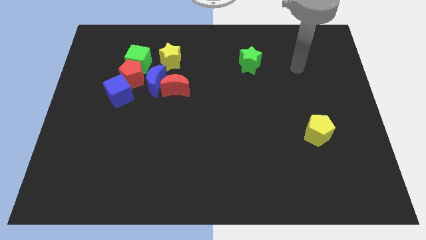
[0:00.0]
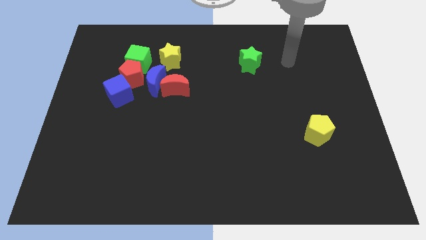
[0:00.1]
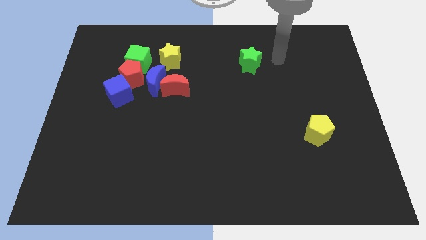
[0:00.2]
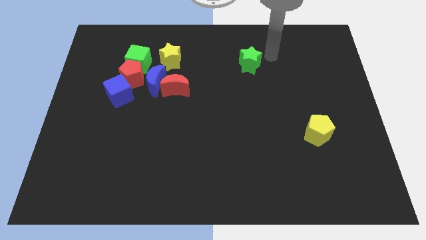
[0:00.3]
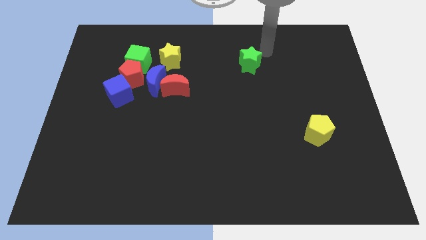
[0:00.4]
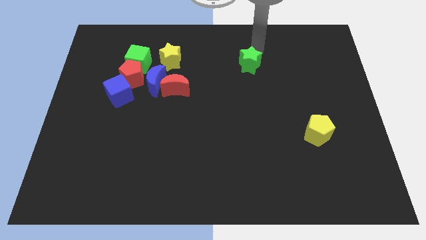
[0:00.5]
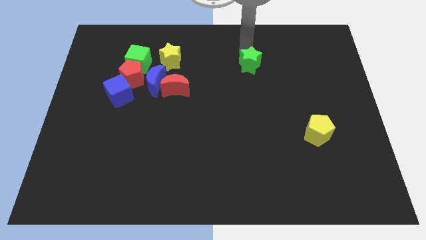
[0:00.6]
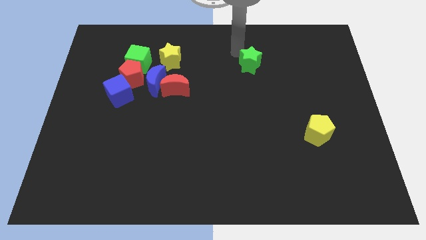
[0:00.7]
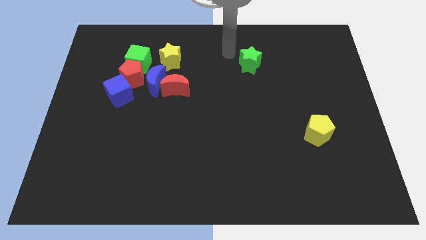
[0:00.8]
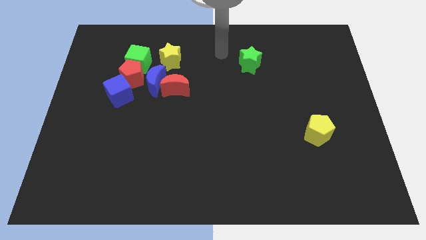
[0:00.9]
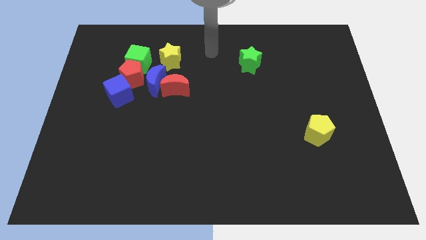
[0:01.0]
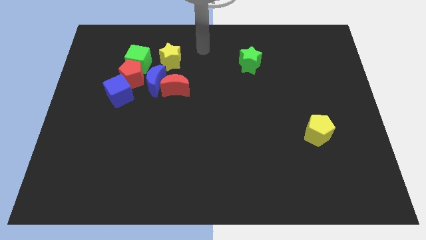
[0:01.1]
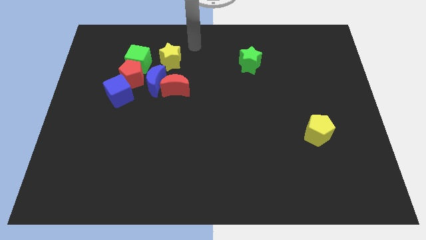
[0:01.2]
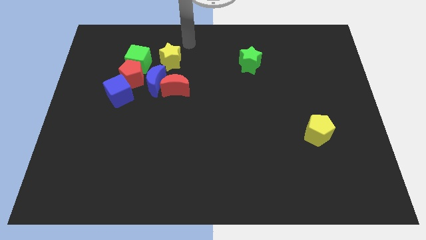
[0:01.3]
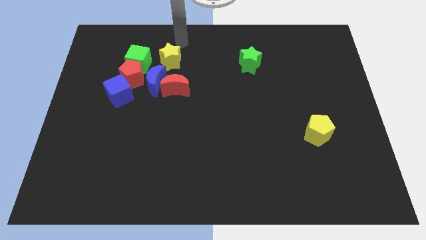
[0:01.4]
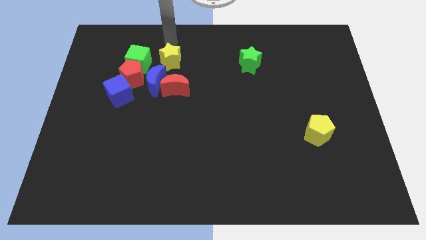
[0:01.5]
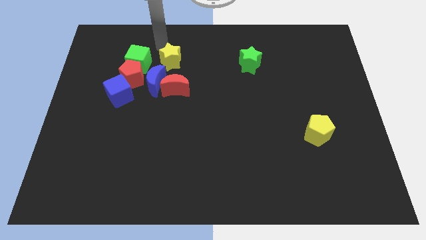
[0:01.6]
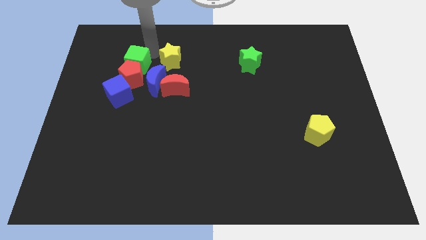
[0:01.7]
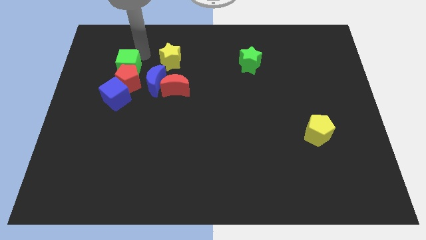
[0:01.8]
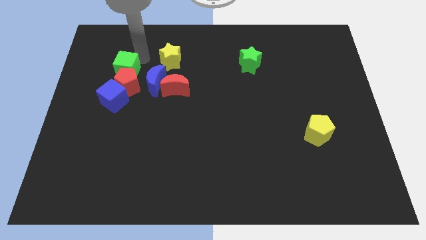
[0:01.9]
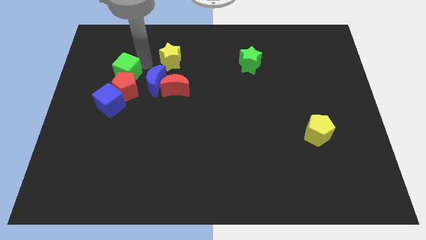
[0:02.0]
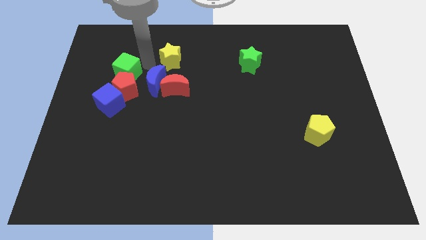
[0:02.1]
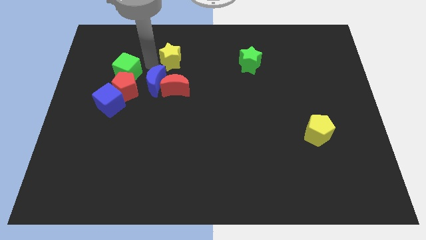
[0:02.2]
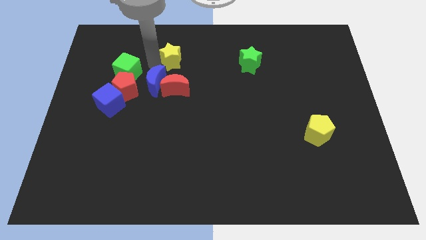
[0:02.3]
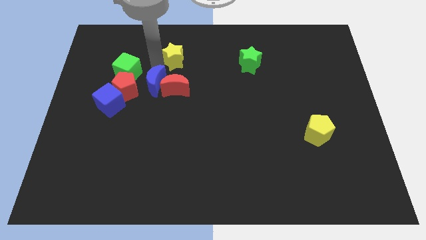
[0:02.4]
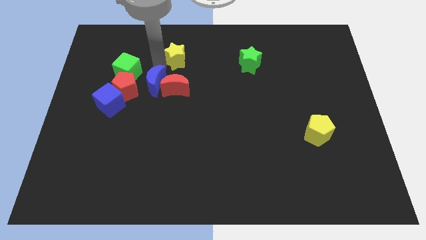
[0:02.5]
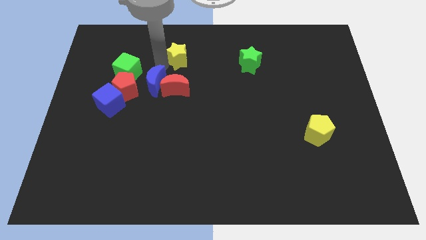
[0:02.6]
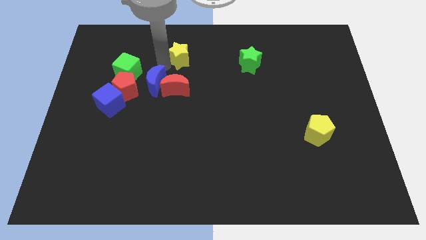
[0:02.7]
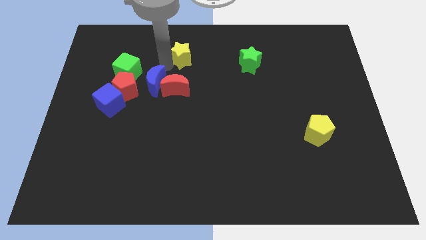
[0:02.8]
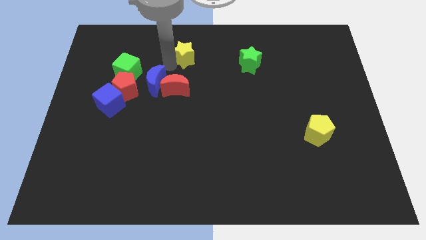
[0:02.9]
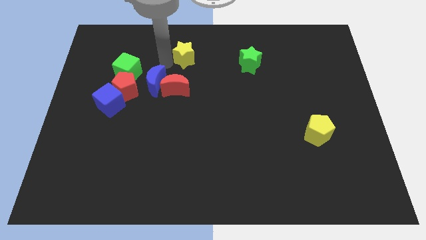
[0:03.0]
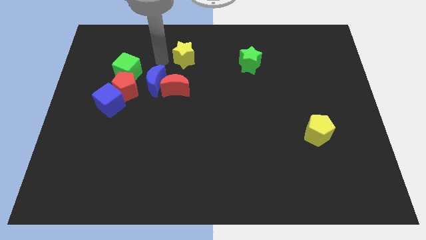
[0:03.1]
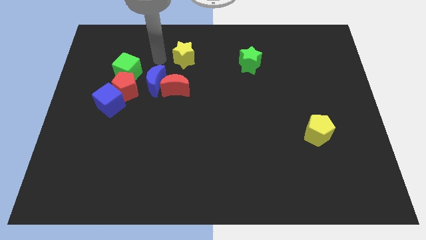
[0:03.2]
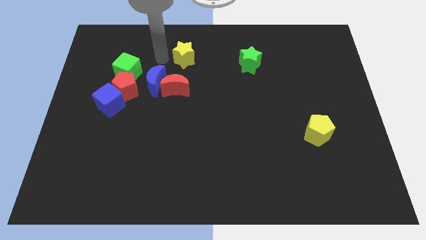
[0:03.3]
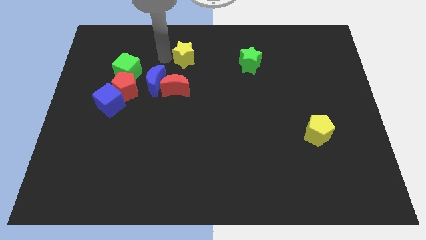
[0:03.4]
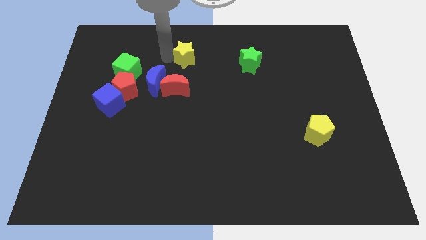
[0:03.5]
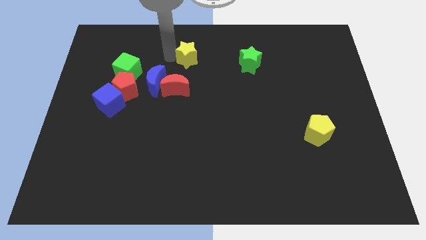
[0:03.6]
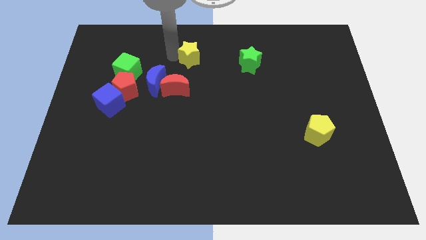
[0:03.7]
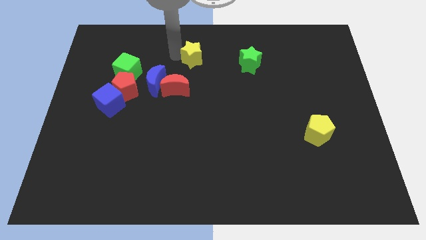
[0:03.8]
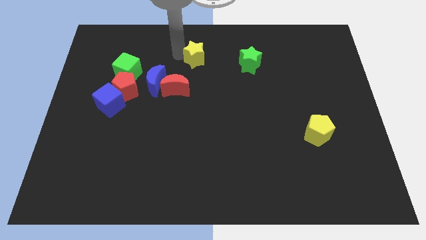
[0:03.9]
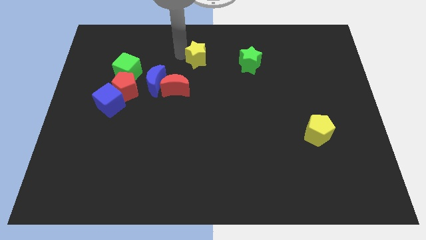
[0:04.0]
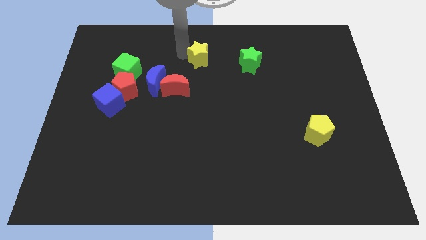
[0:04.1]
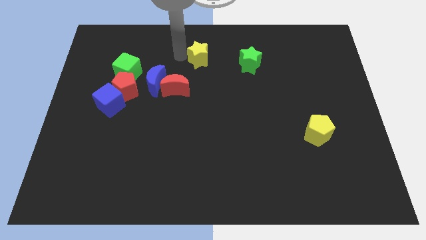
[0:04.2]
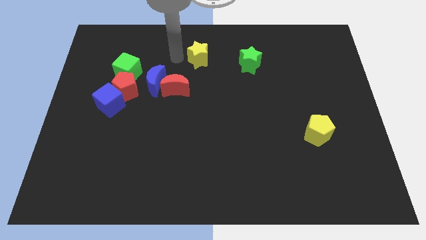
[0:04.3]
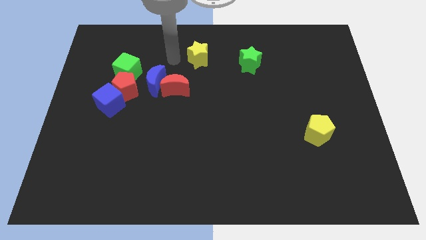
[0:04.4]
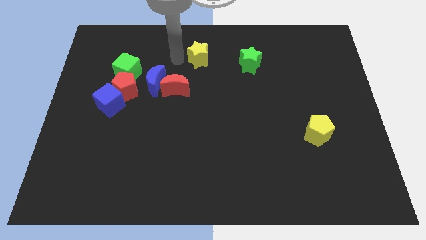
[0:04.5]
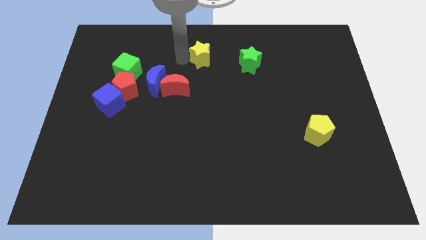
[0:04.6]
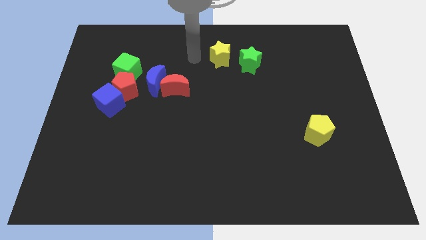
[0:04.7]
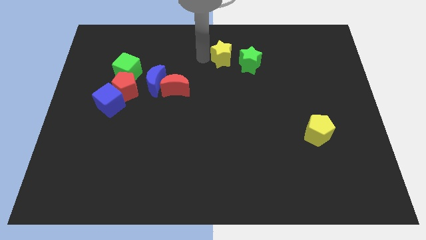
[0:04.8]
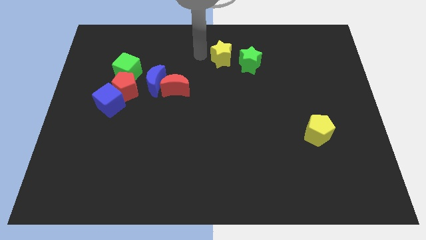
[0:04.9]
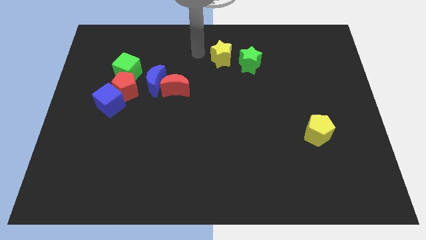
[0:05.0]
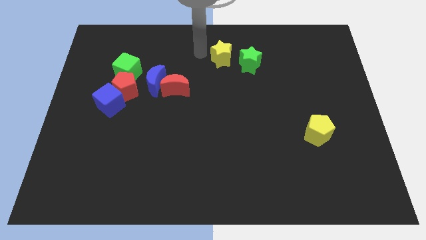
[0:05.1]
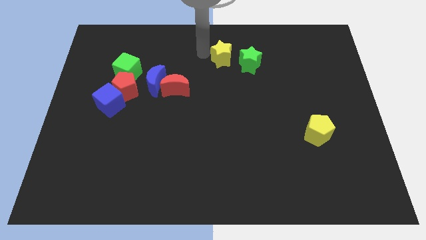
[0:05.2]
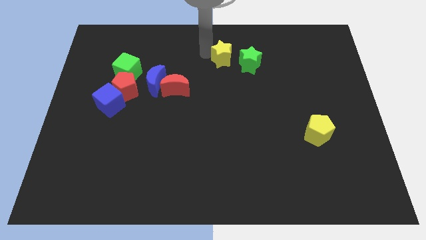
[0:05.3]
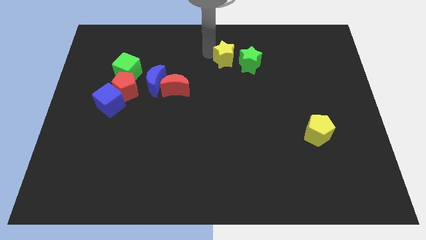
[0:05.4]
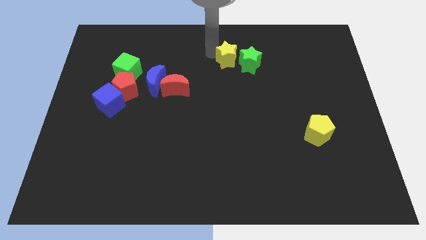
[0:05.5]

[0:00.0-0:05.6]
slide the yellow star next to the green star

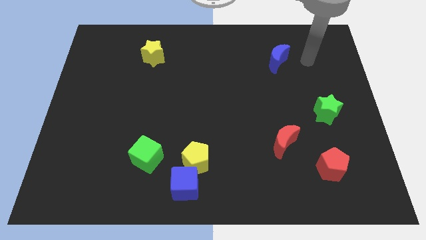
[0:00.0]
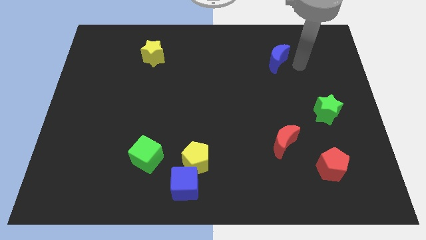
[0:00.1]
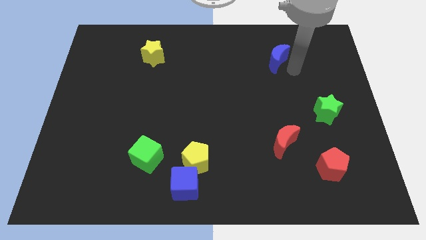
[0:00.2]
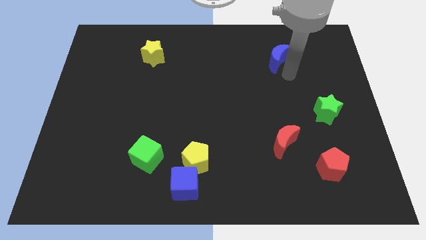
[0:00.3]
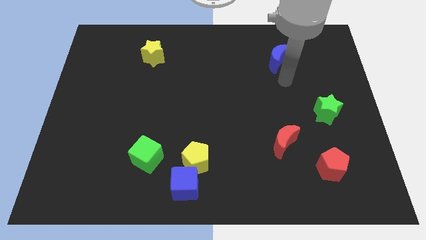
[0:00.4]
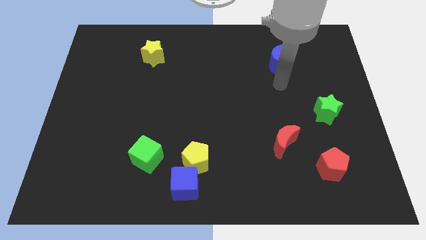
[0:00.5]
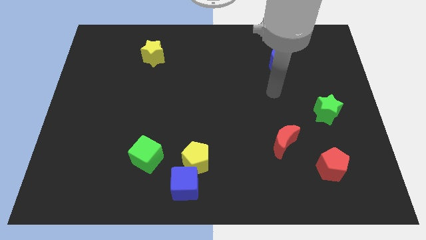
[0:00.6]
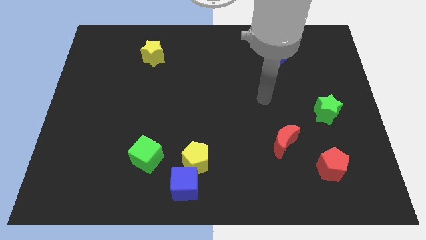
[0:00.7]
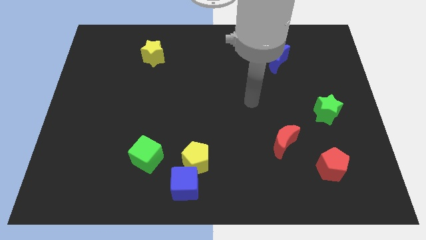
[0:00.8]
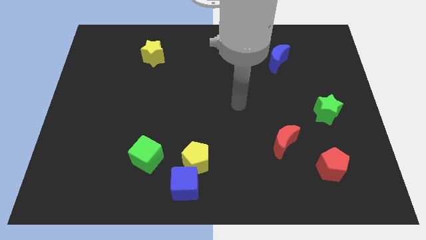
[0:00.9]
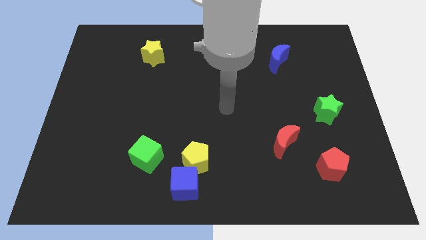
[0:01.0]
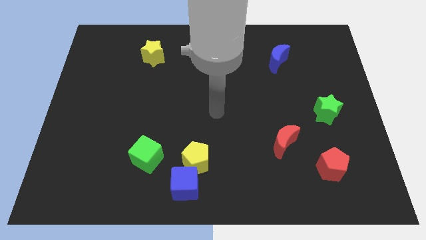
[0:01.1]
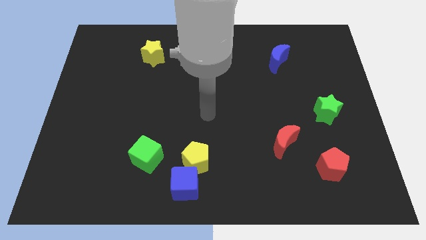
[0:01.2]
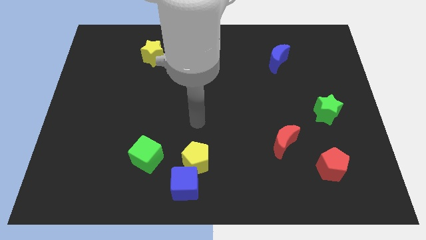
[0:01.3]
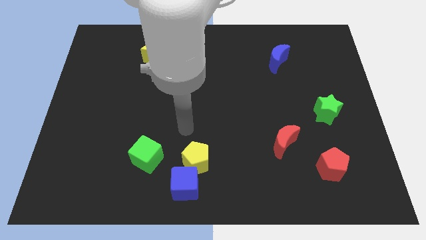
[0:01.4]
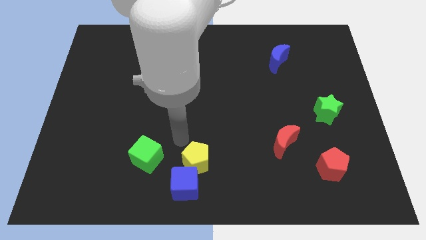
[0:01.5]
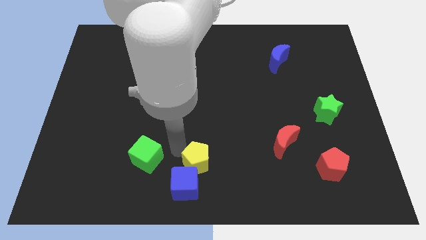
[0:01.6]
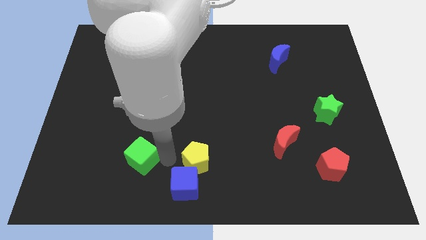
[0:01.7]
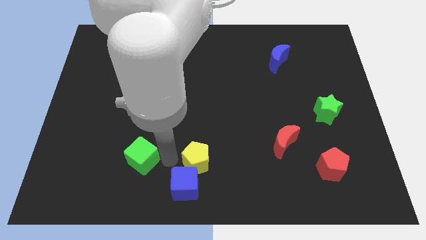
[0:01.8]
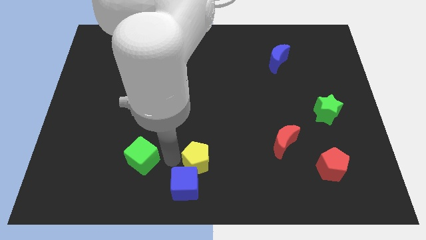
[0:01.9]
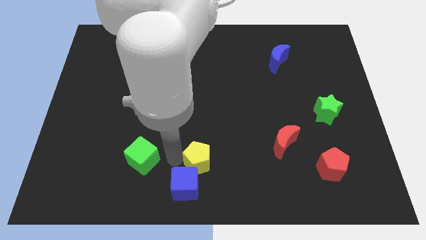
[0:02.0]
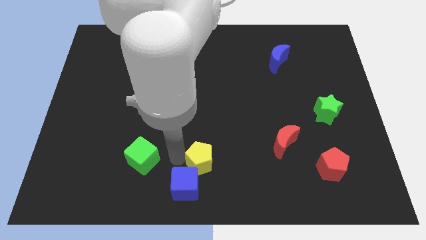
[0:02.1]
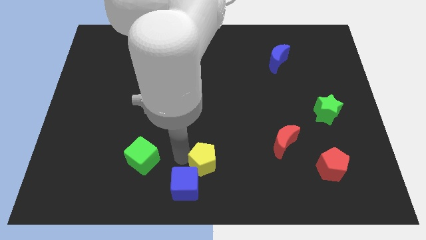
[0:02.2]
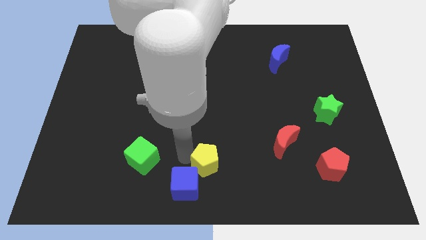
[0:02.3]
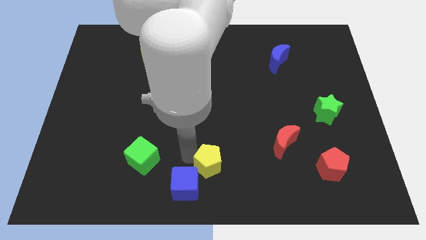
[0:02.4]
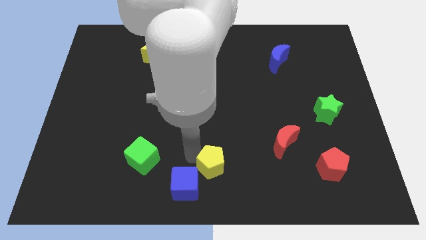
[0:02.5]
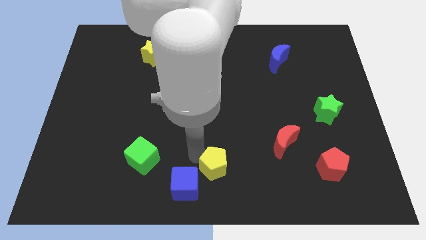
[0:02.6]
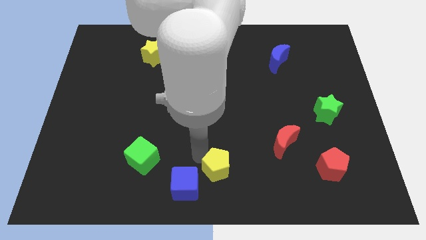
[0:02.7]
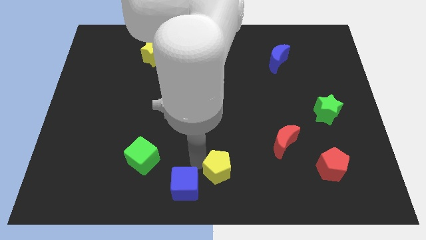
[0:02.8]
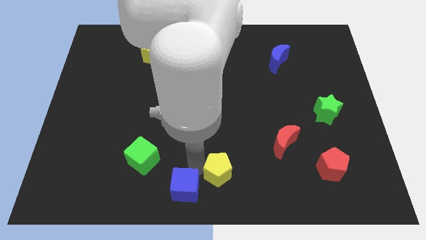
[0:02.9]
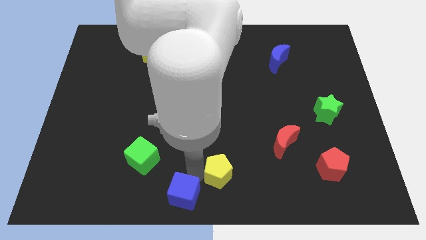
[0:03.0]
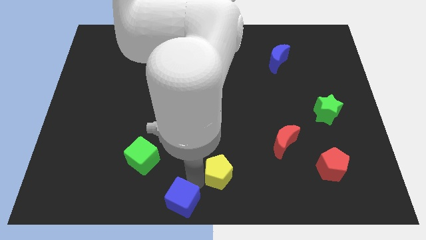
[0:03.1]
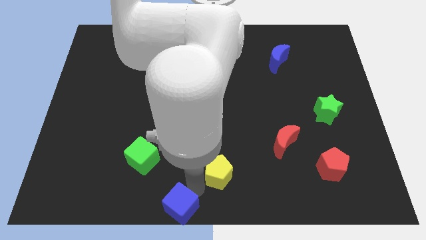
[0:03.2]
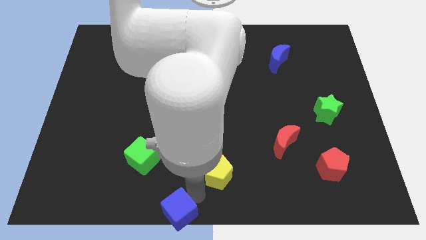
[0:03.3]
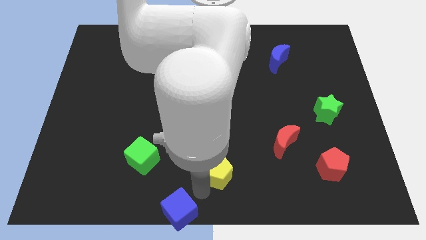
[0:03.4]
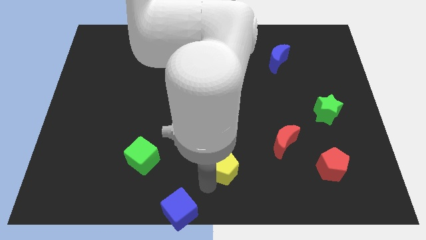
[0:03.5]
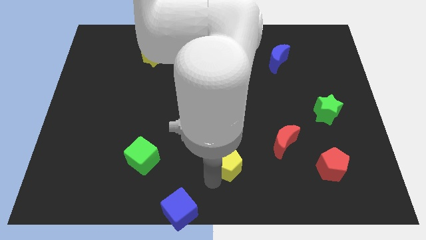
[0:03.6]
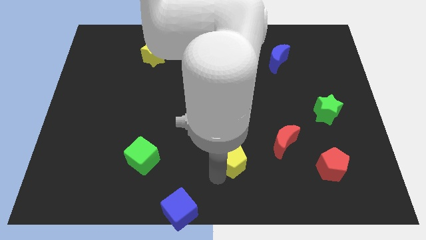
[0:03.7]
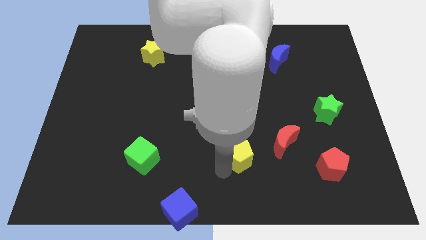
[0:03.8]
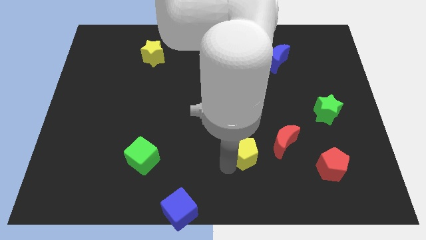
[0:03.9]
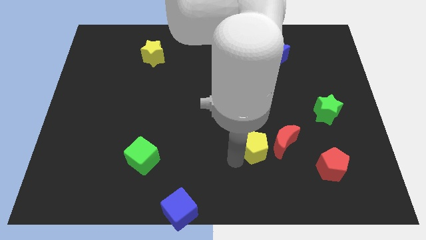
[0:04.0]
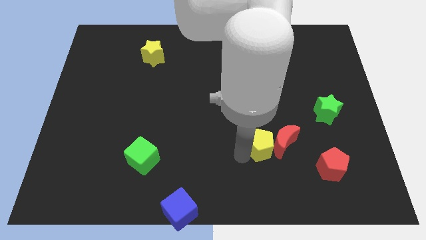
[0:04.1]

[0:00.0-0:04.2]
push the yellow pentagon close to the red moon
